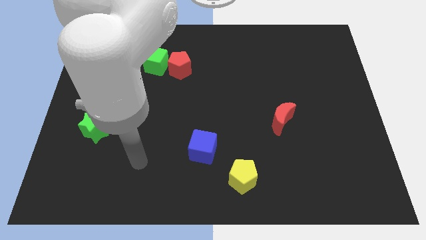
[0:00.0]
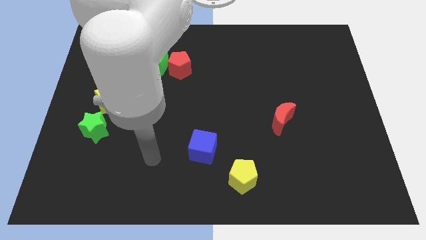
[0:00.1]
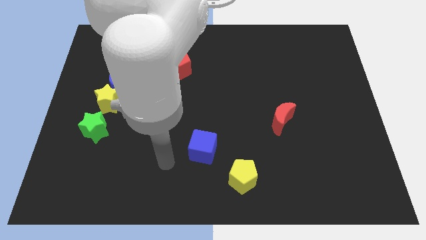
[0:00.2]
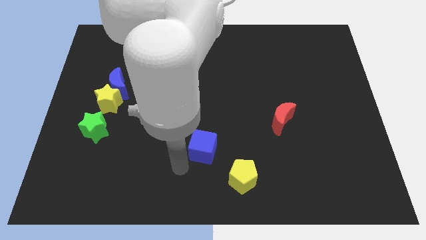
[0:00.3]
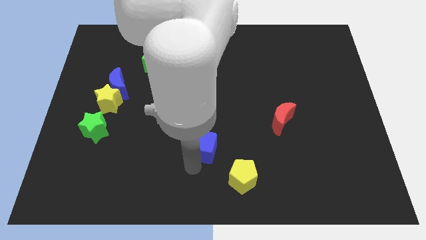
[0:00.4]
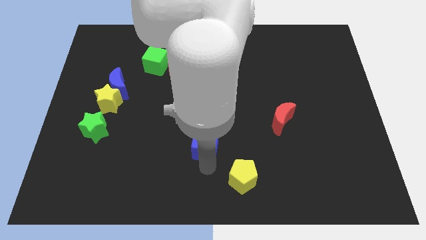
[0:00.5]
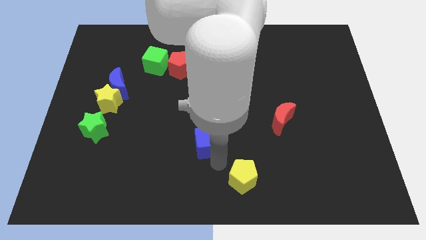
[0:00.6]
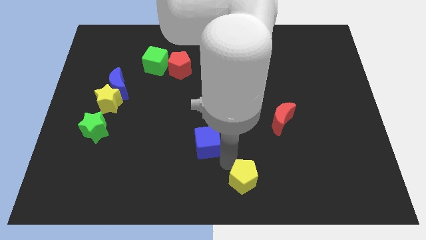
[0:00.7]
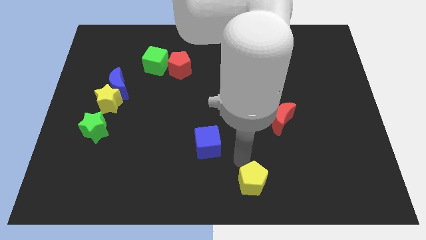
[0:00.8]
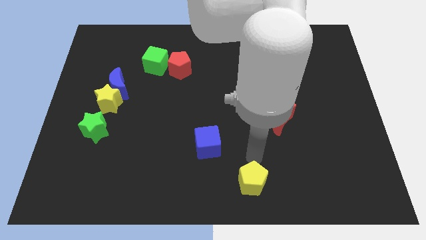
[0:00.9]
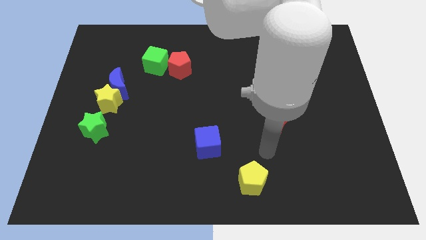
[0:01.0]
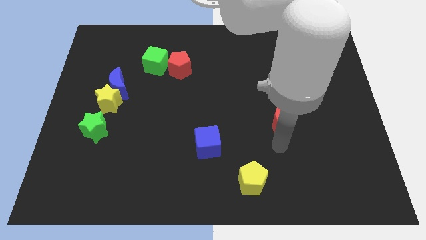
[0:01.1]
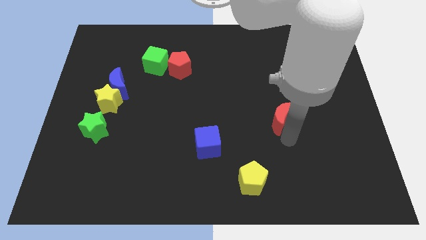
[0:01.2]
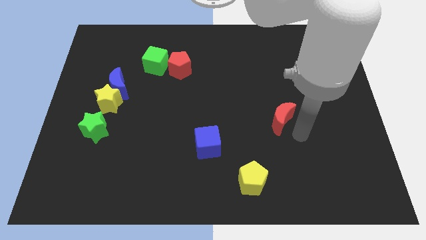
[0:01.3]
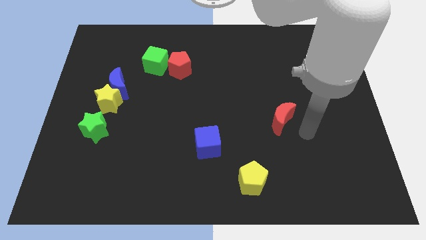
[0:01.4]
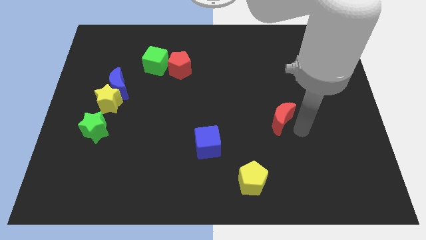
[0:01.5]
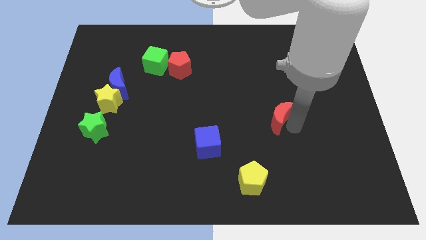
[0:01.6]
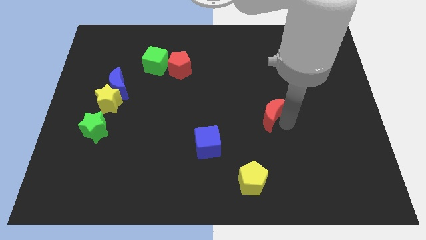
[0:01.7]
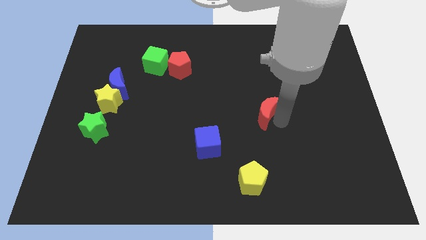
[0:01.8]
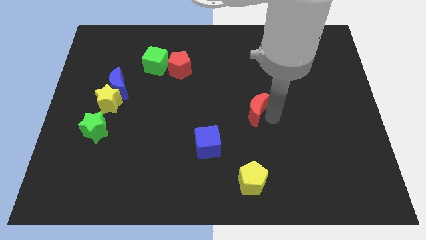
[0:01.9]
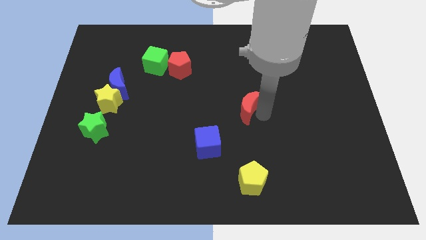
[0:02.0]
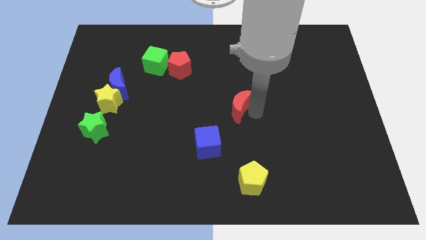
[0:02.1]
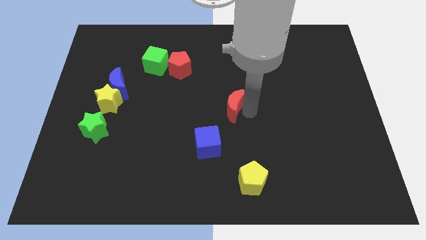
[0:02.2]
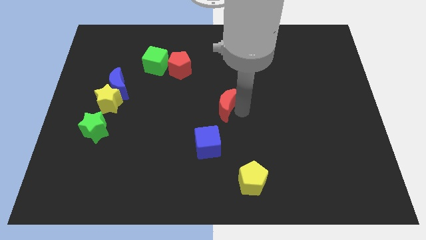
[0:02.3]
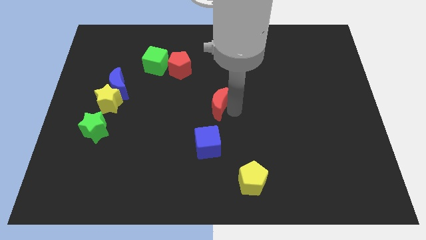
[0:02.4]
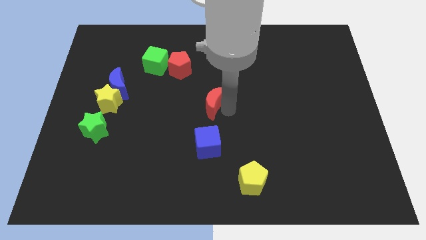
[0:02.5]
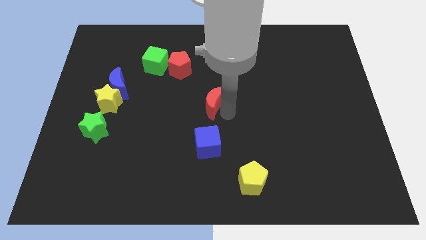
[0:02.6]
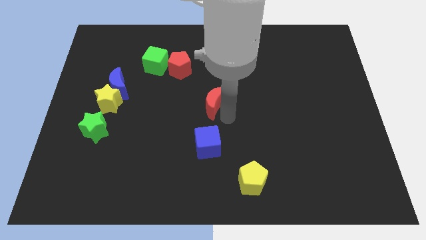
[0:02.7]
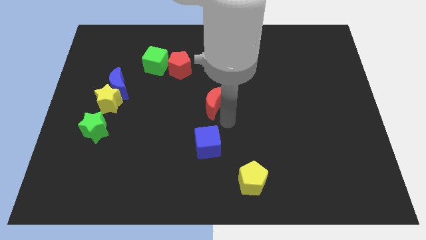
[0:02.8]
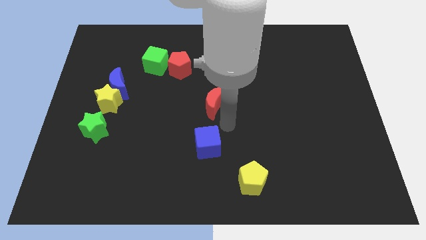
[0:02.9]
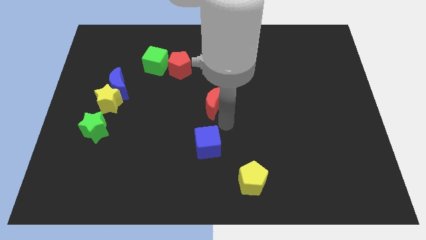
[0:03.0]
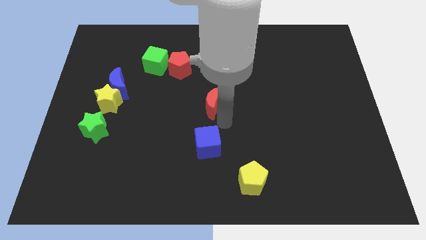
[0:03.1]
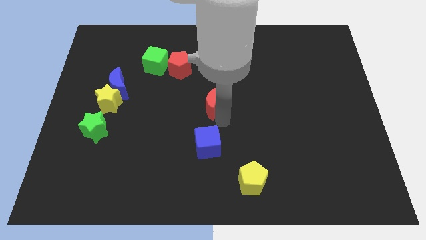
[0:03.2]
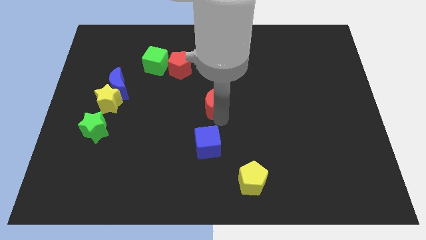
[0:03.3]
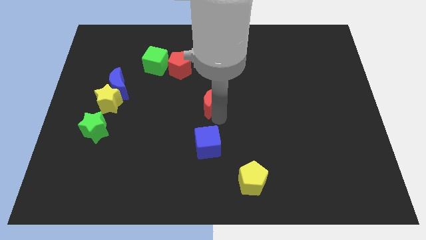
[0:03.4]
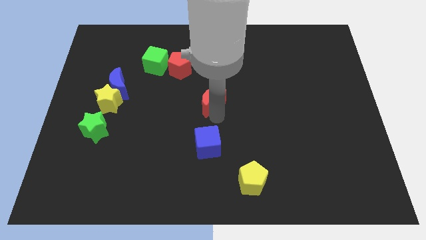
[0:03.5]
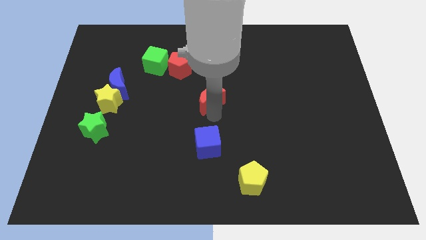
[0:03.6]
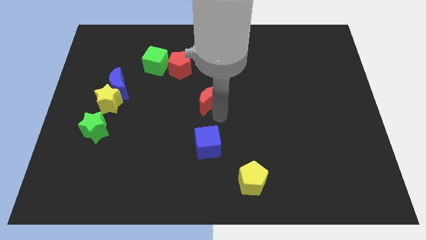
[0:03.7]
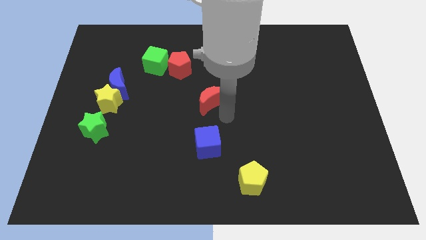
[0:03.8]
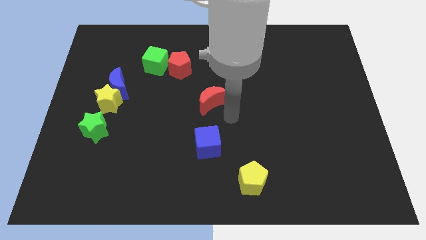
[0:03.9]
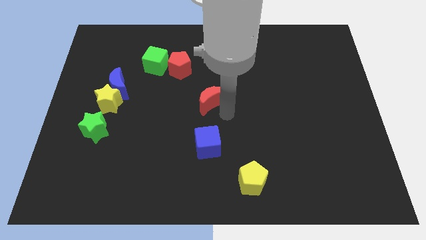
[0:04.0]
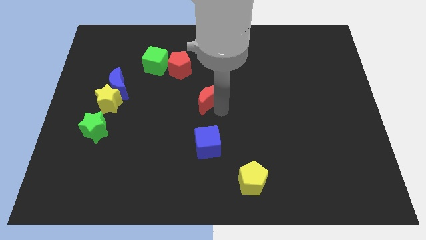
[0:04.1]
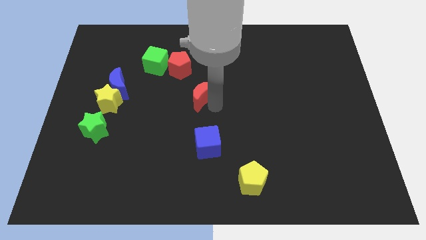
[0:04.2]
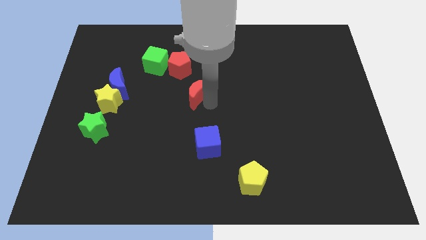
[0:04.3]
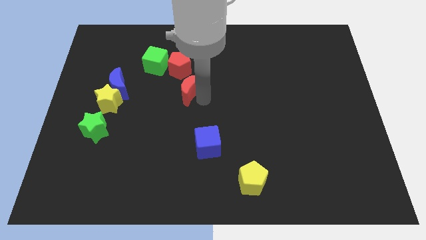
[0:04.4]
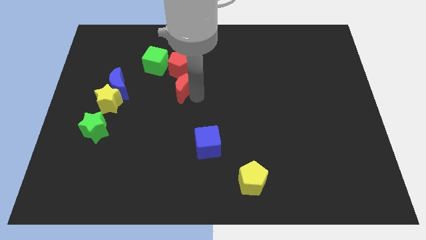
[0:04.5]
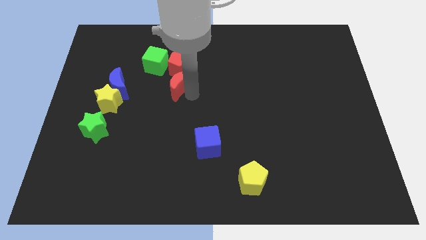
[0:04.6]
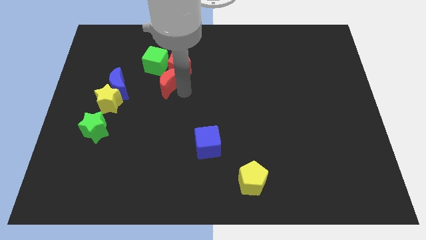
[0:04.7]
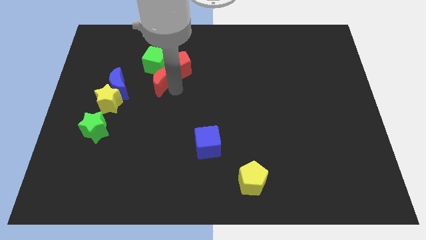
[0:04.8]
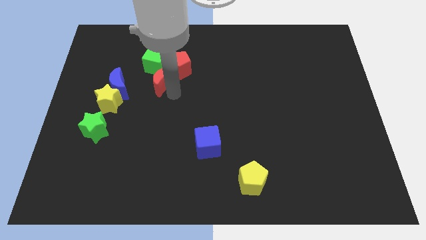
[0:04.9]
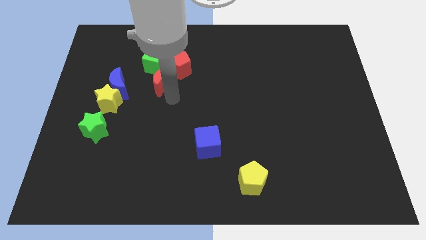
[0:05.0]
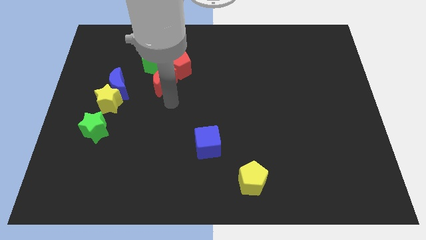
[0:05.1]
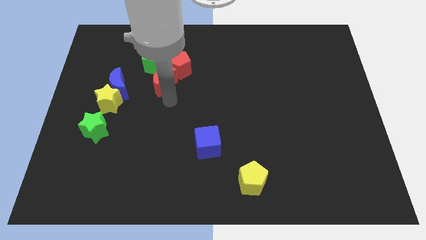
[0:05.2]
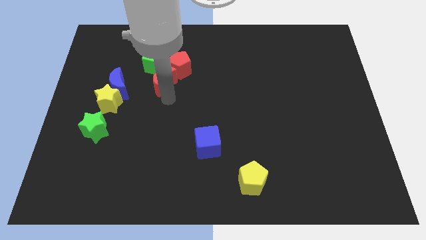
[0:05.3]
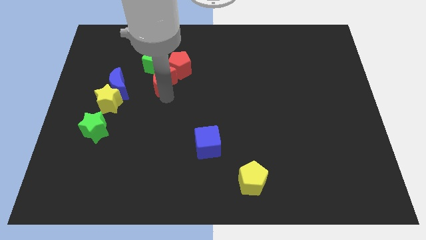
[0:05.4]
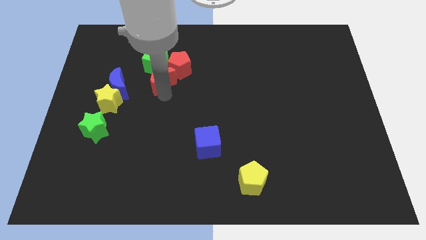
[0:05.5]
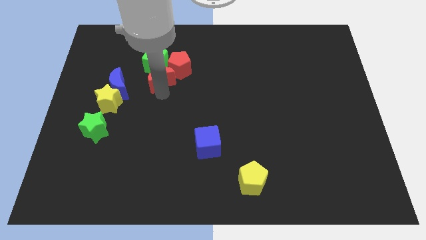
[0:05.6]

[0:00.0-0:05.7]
push the red moon next to the green cube

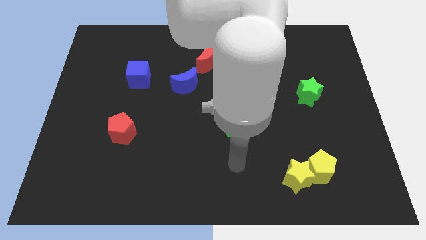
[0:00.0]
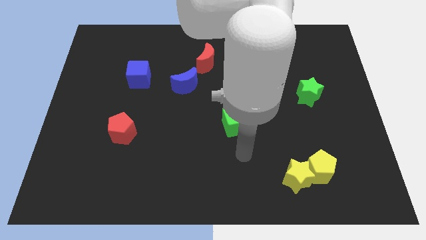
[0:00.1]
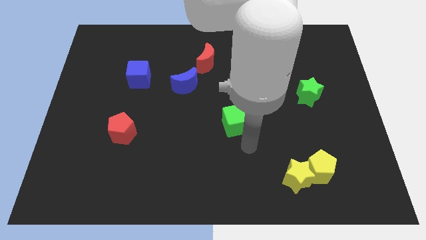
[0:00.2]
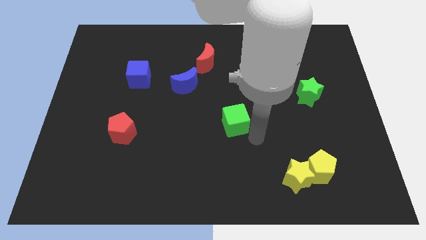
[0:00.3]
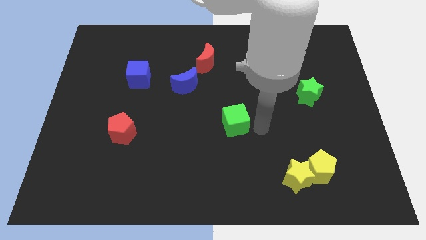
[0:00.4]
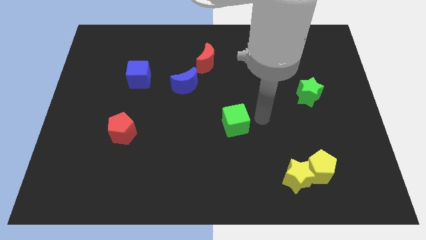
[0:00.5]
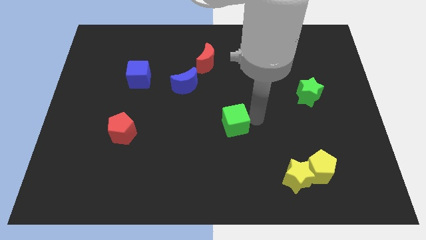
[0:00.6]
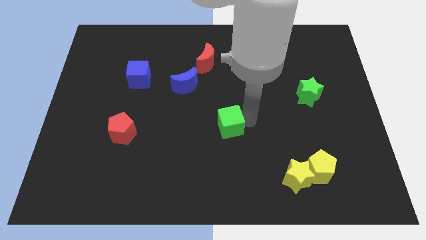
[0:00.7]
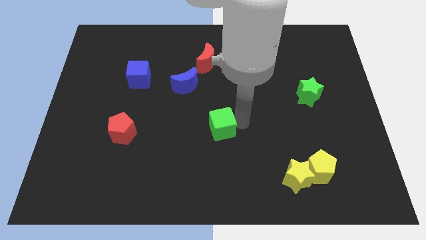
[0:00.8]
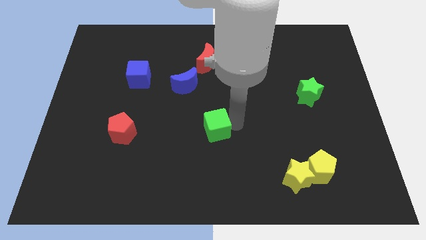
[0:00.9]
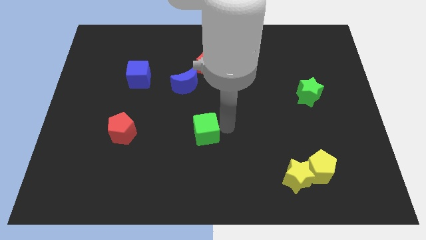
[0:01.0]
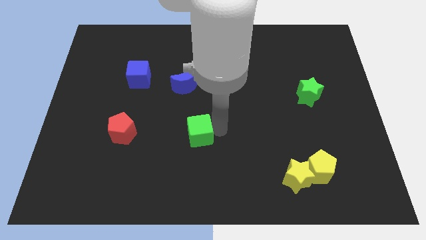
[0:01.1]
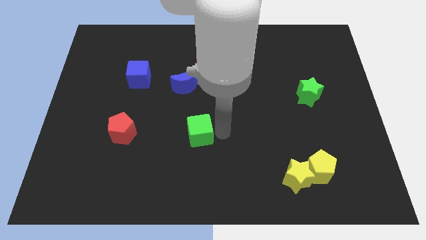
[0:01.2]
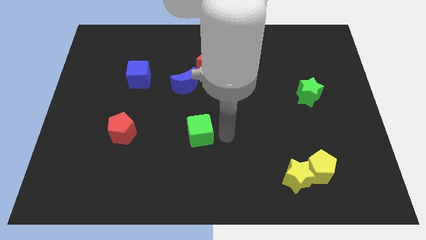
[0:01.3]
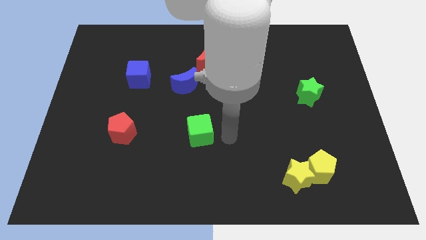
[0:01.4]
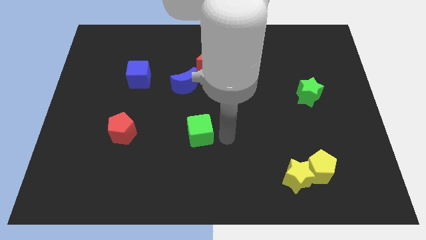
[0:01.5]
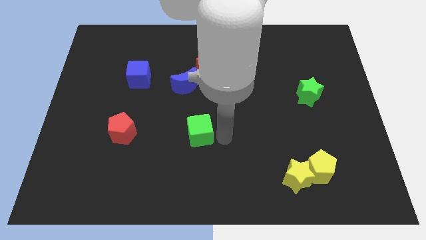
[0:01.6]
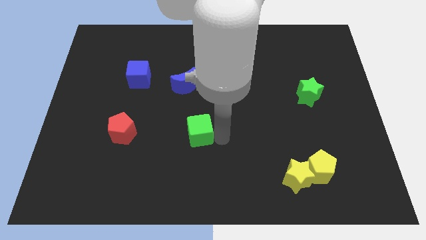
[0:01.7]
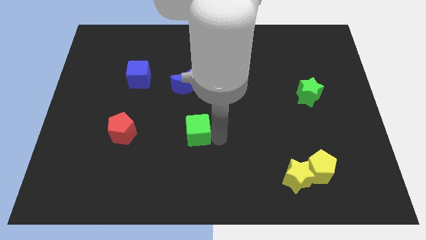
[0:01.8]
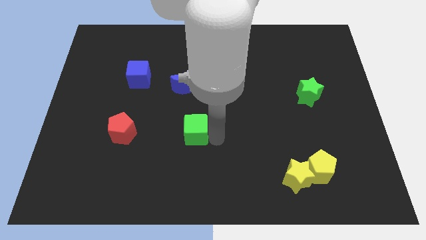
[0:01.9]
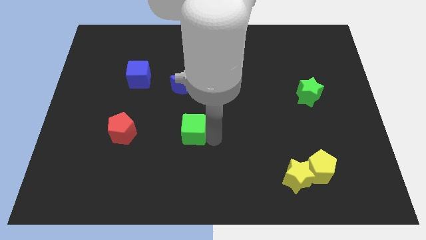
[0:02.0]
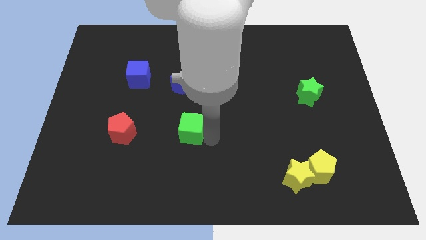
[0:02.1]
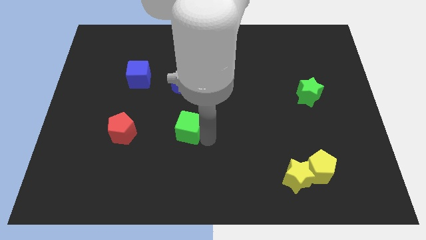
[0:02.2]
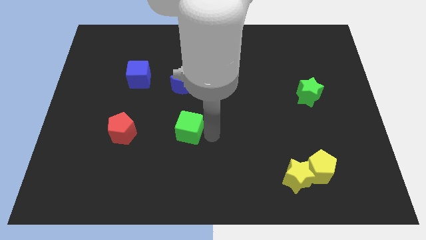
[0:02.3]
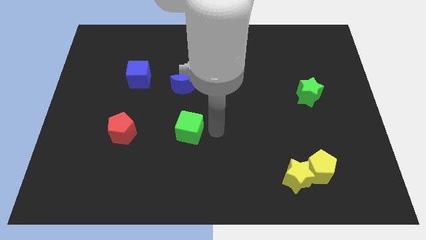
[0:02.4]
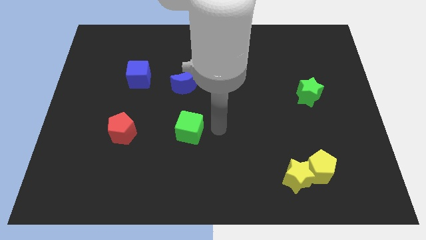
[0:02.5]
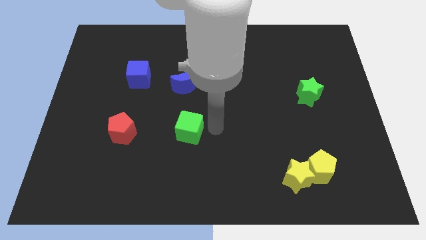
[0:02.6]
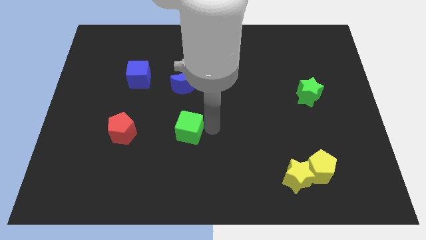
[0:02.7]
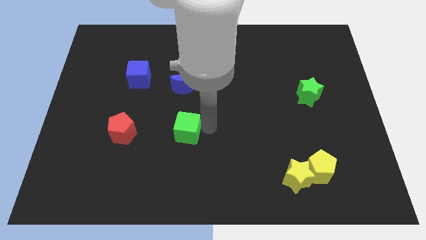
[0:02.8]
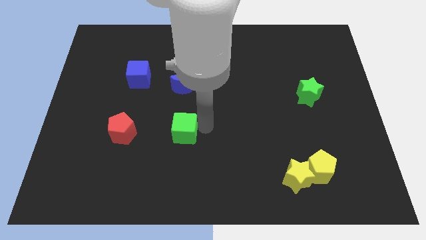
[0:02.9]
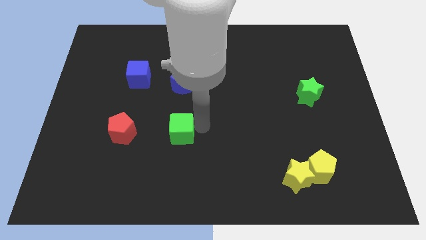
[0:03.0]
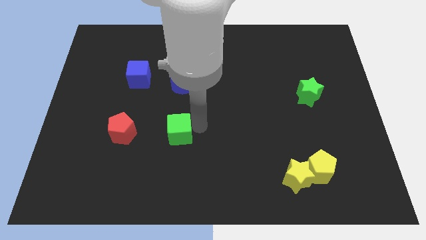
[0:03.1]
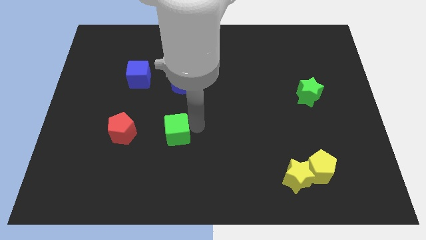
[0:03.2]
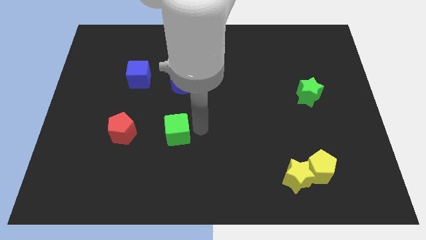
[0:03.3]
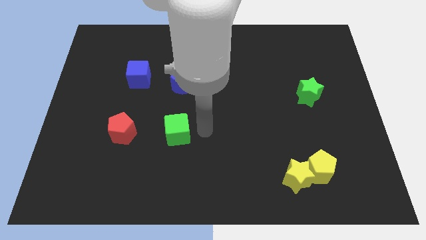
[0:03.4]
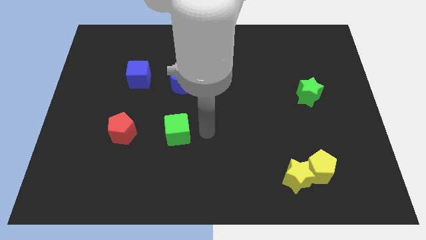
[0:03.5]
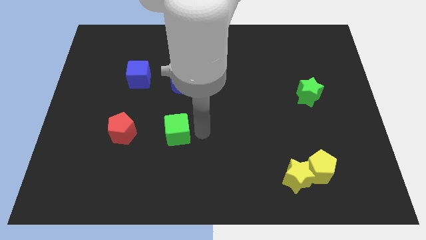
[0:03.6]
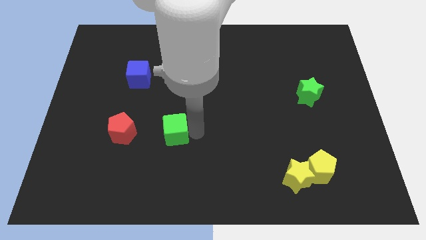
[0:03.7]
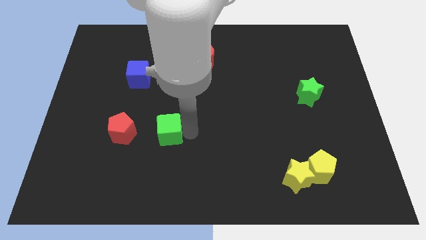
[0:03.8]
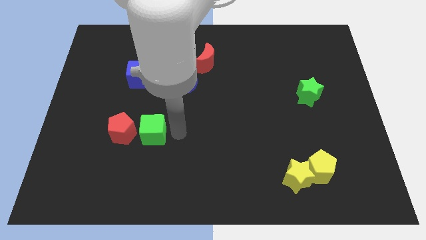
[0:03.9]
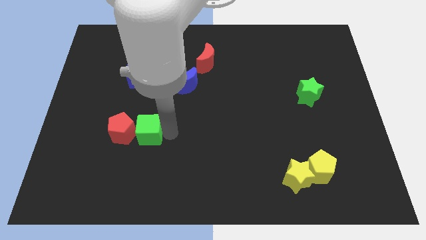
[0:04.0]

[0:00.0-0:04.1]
move the green cube next to the red pentagon
